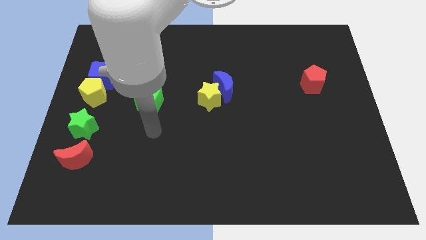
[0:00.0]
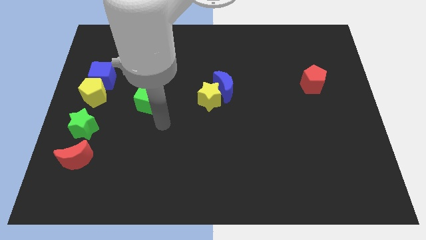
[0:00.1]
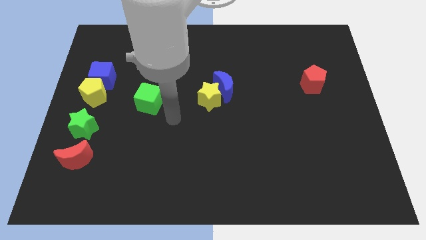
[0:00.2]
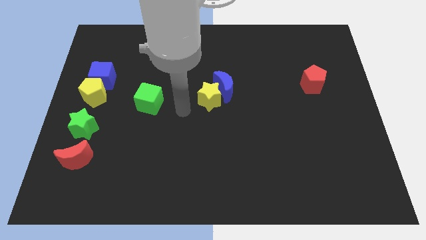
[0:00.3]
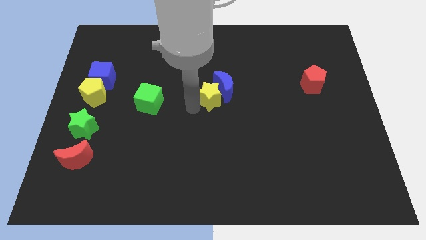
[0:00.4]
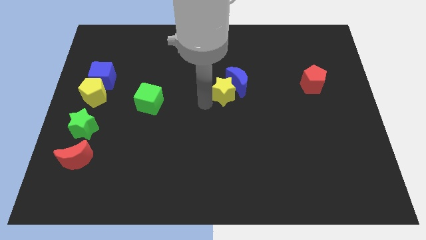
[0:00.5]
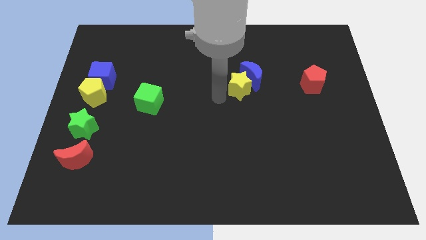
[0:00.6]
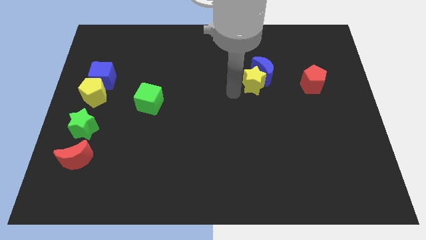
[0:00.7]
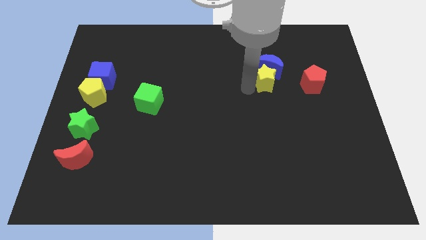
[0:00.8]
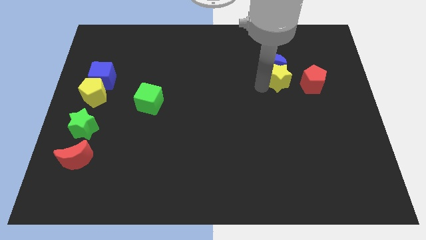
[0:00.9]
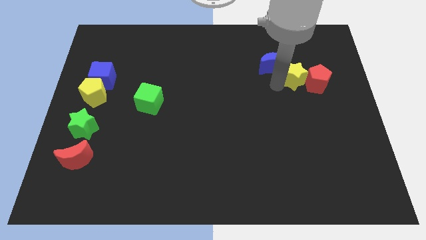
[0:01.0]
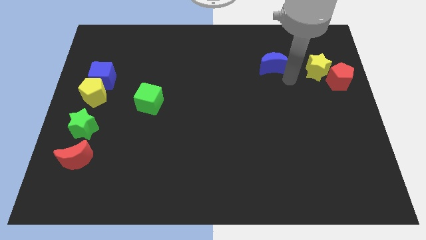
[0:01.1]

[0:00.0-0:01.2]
separate the blue moon from the yellow star

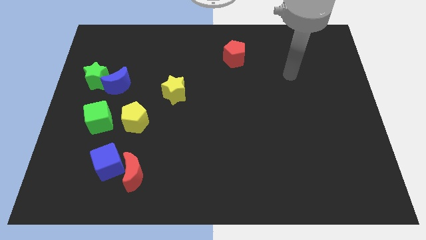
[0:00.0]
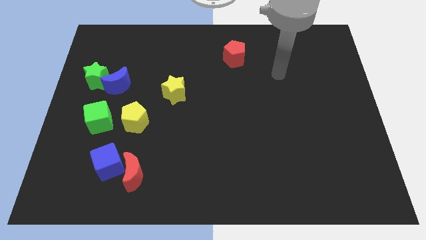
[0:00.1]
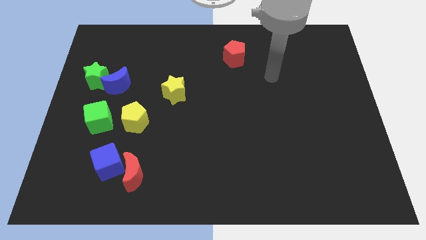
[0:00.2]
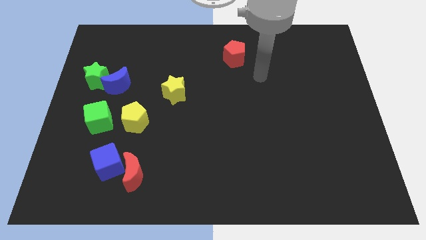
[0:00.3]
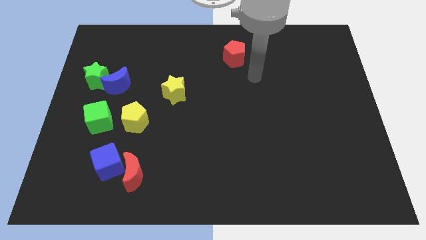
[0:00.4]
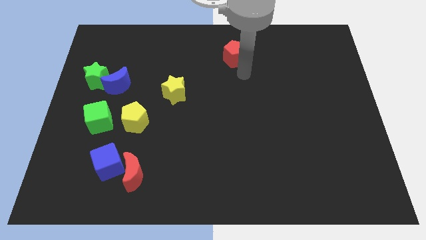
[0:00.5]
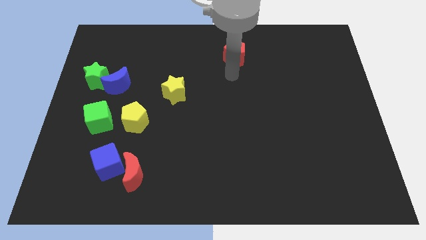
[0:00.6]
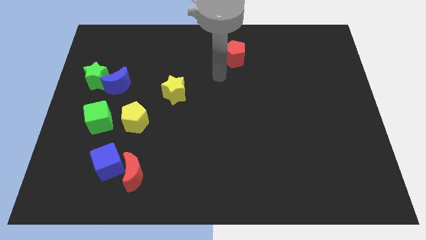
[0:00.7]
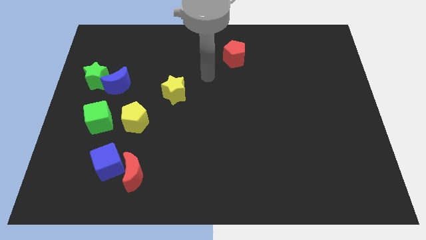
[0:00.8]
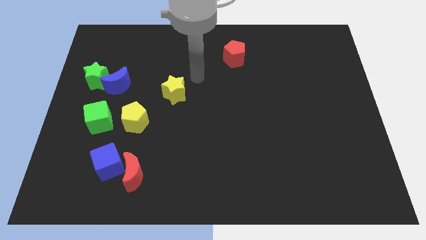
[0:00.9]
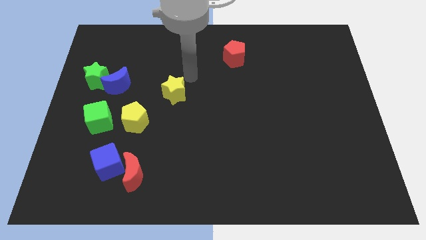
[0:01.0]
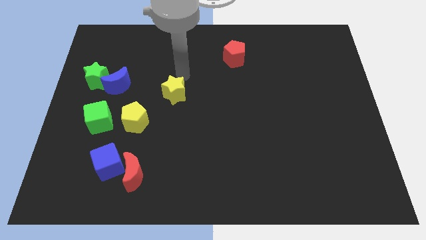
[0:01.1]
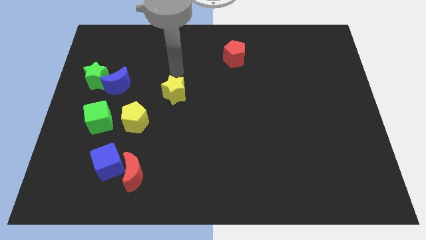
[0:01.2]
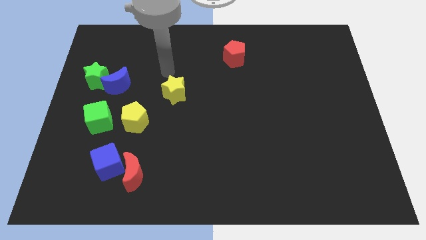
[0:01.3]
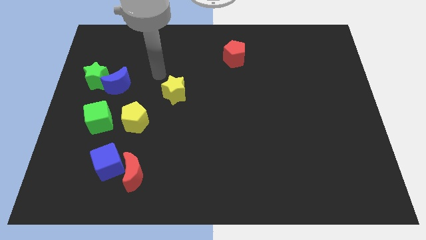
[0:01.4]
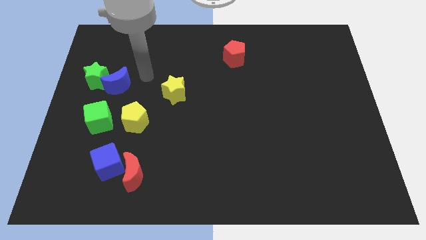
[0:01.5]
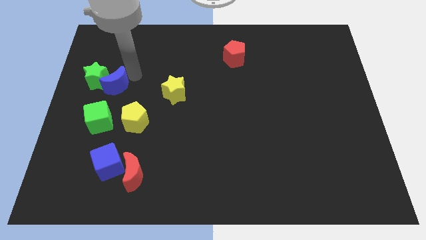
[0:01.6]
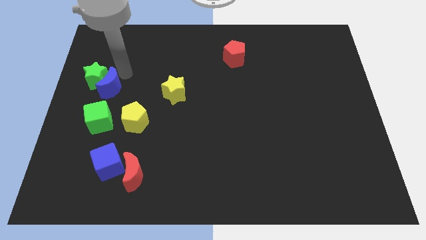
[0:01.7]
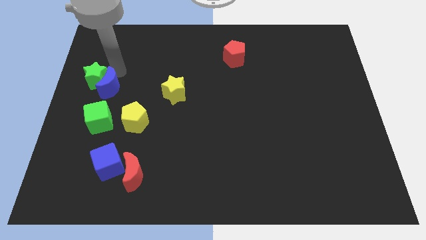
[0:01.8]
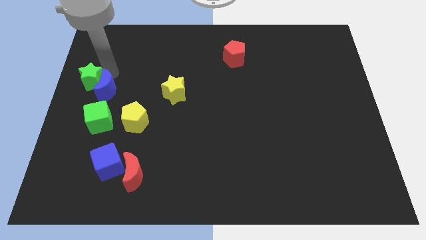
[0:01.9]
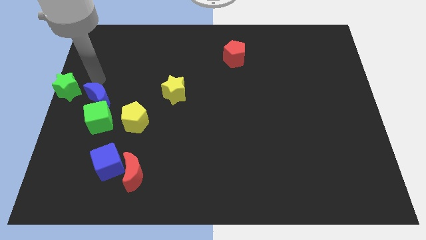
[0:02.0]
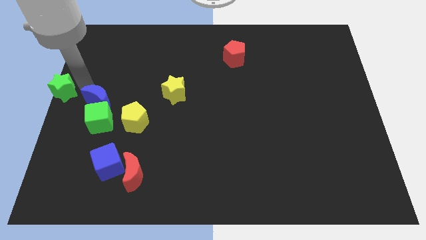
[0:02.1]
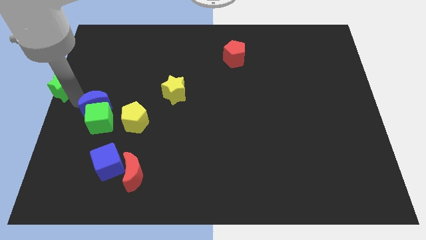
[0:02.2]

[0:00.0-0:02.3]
pull the blue moon apart from the green star

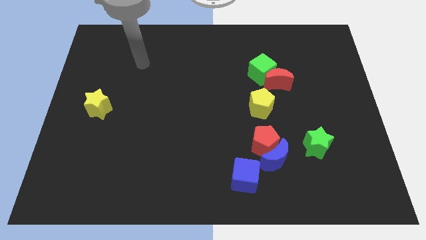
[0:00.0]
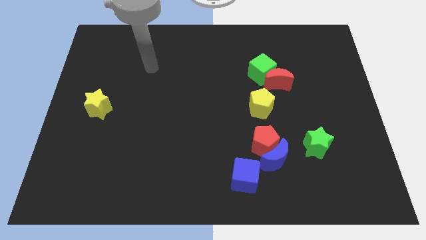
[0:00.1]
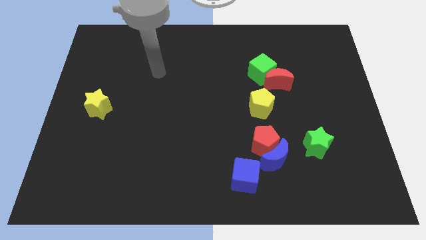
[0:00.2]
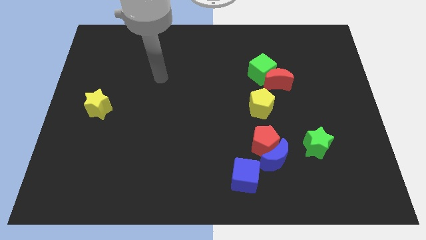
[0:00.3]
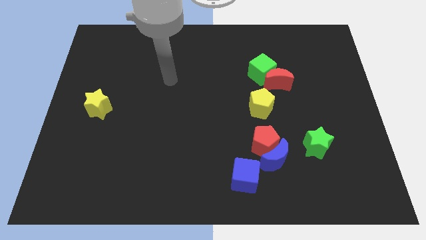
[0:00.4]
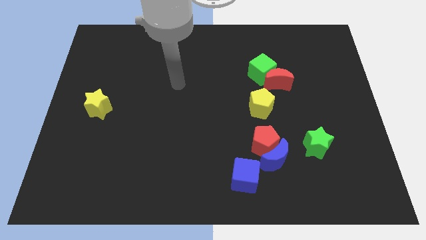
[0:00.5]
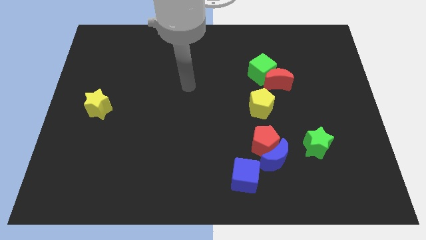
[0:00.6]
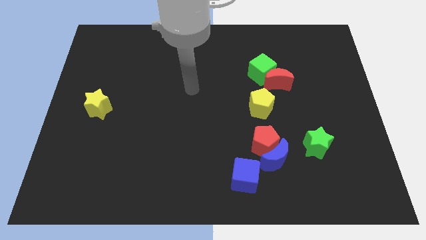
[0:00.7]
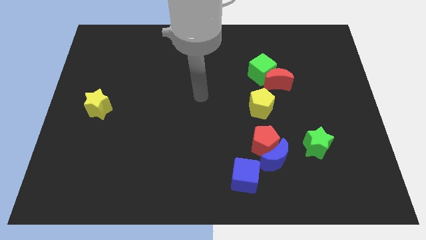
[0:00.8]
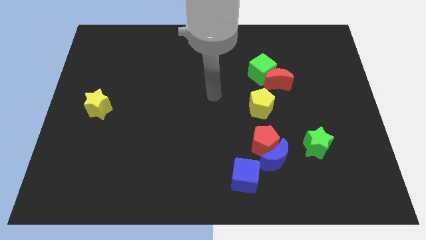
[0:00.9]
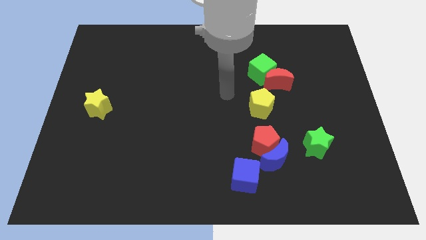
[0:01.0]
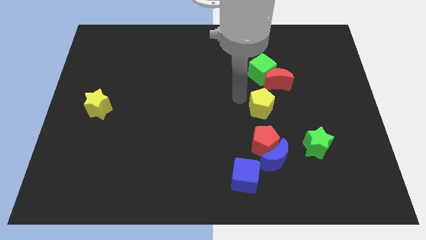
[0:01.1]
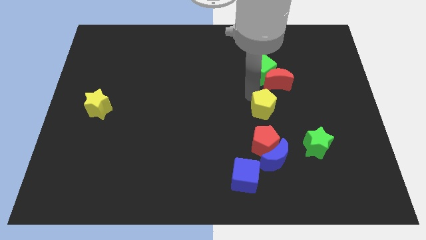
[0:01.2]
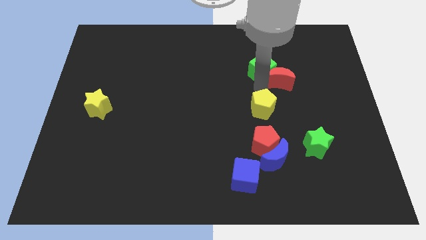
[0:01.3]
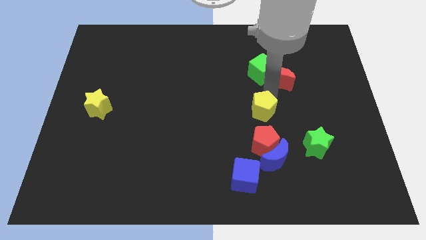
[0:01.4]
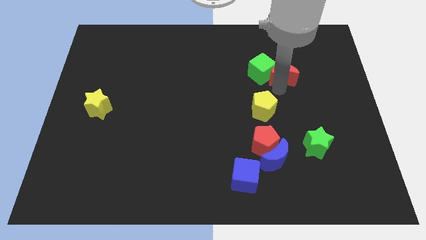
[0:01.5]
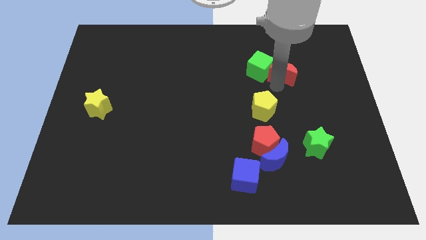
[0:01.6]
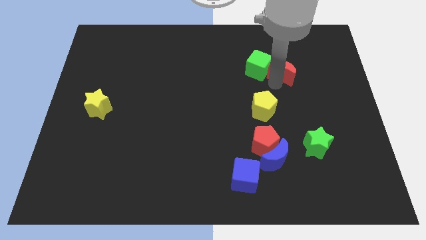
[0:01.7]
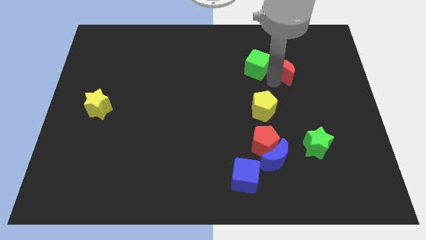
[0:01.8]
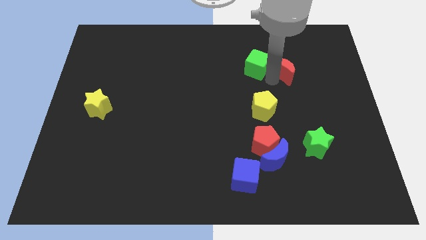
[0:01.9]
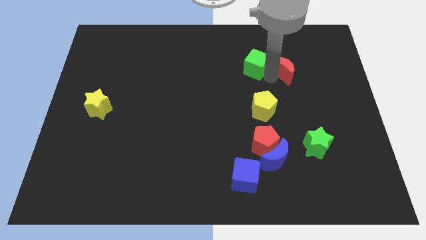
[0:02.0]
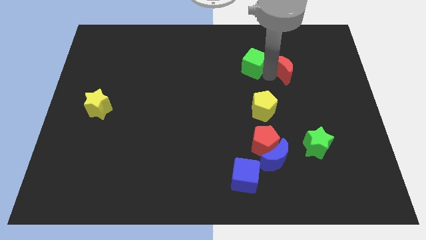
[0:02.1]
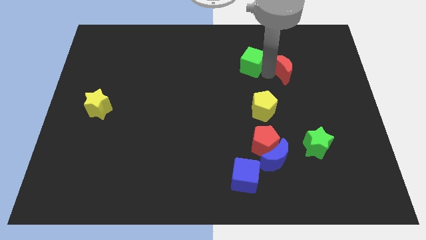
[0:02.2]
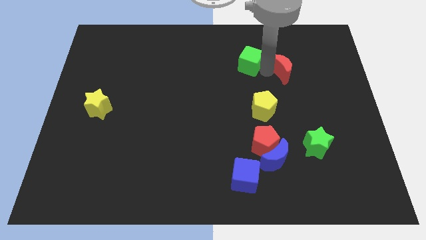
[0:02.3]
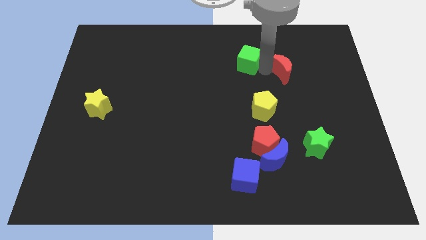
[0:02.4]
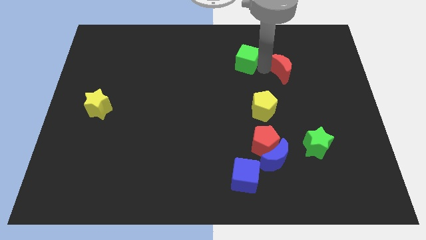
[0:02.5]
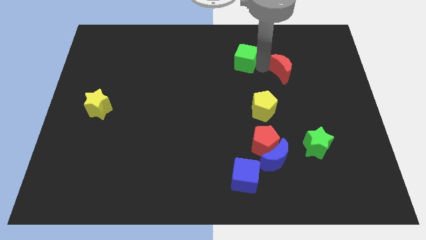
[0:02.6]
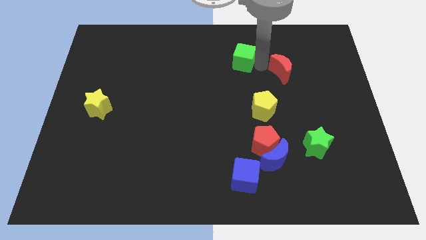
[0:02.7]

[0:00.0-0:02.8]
pull the green cube apart from the red moon

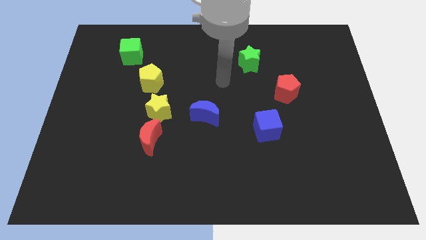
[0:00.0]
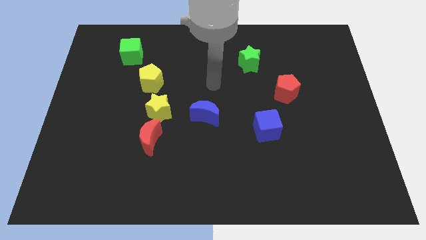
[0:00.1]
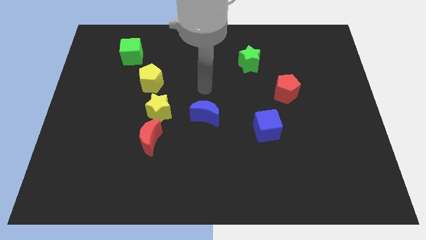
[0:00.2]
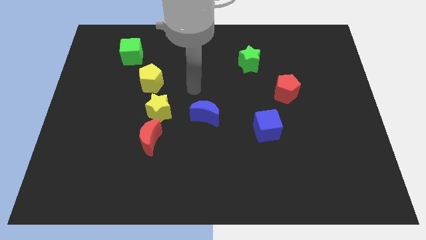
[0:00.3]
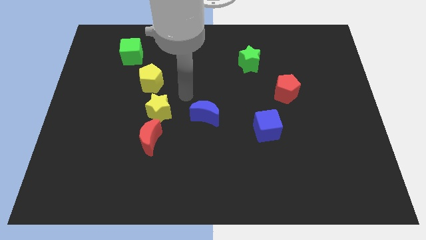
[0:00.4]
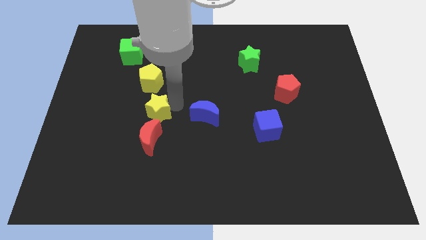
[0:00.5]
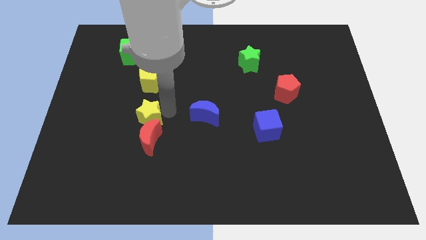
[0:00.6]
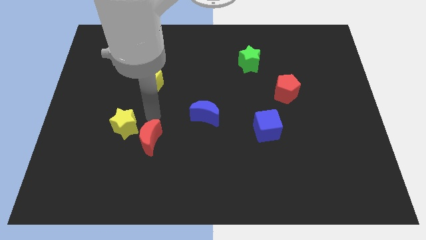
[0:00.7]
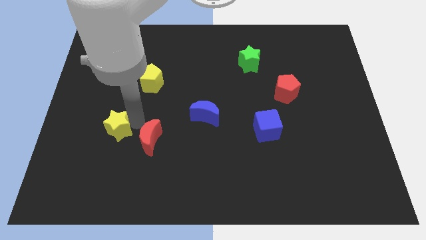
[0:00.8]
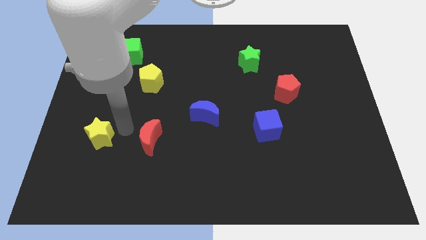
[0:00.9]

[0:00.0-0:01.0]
separate the red moon from the yellow star

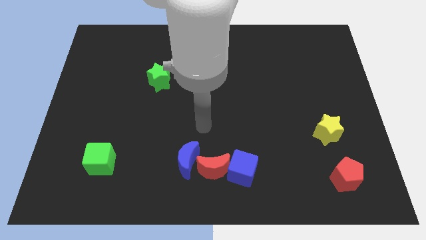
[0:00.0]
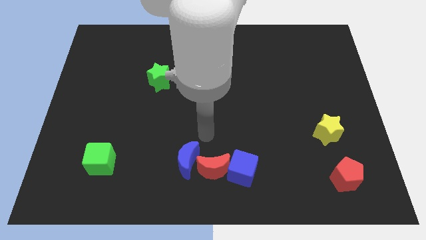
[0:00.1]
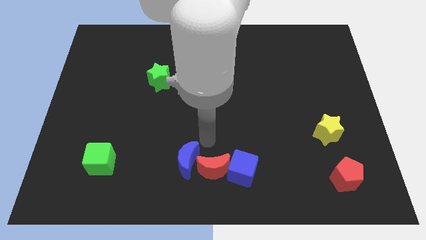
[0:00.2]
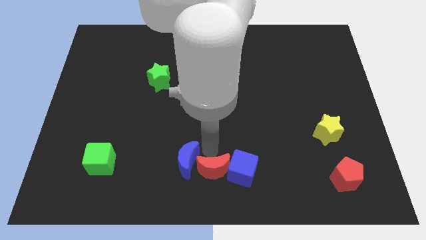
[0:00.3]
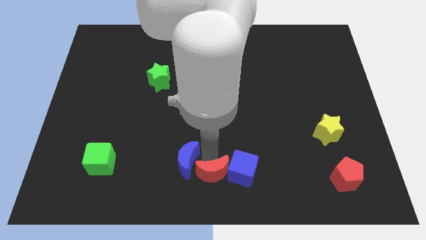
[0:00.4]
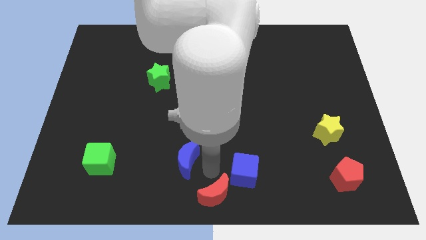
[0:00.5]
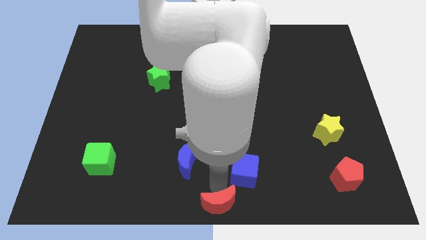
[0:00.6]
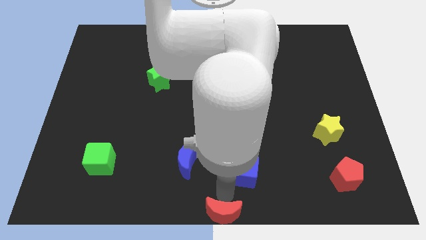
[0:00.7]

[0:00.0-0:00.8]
pull the blue cube apart from the red moon

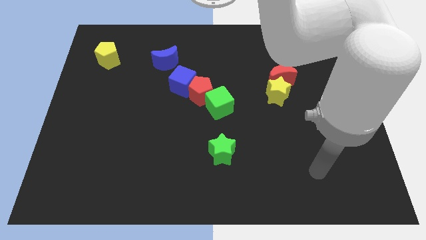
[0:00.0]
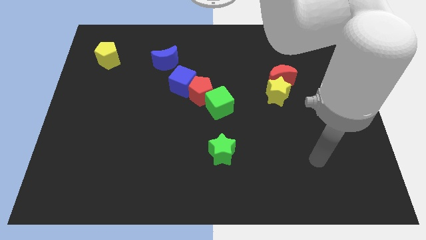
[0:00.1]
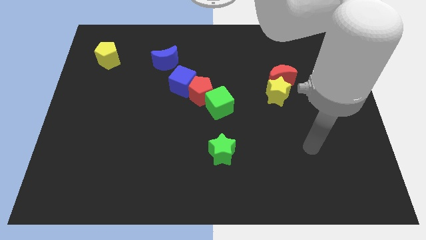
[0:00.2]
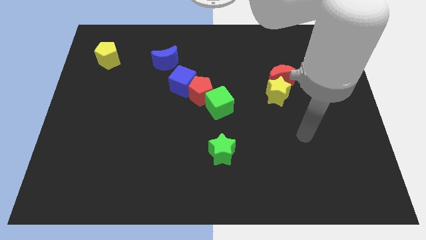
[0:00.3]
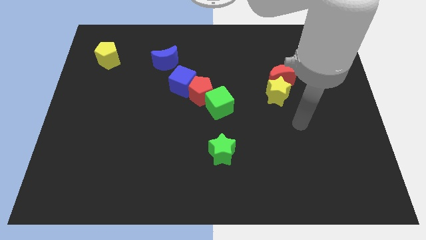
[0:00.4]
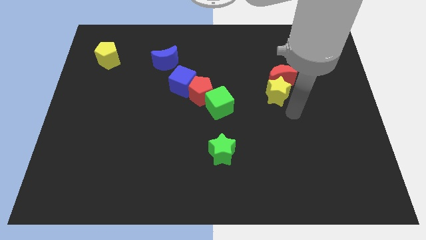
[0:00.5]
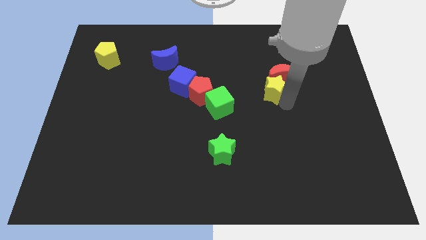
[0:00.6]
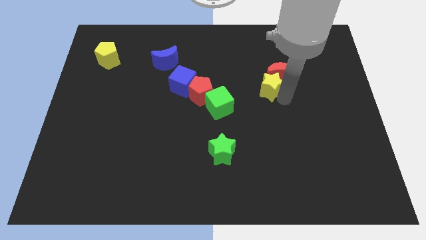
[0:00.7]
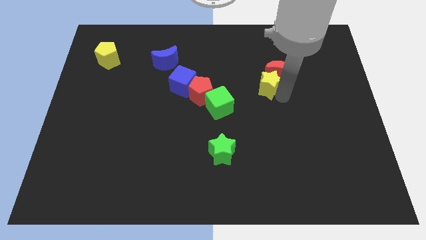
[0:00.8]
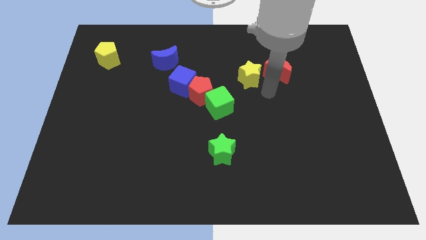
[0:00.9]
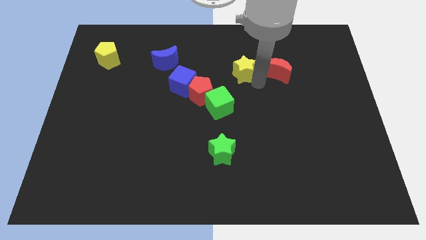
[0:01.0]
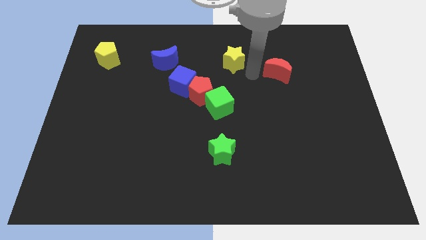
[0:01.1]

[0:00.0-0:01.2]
move the red moon away from the yellow star
